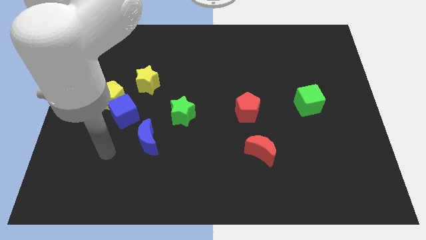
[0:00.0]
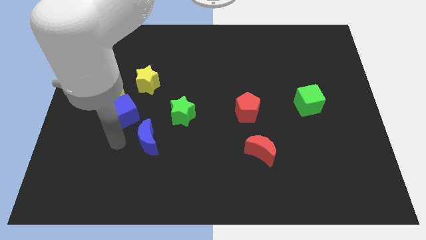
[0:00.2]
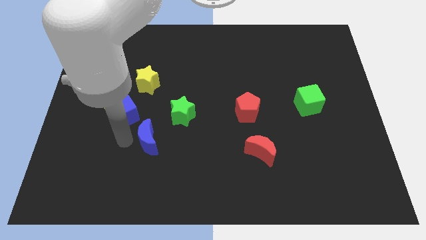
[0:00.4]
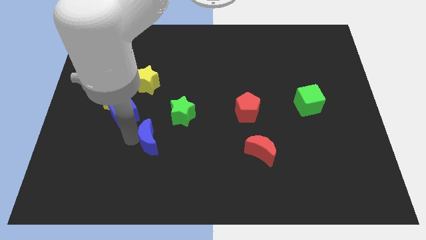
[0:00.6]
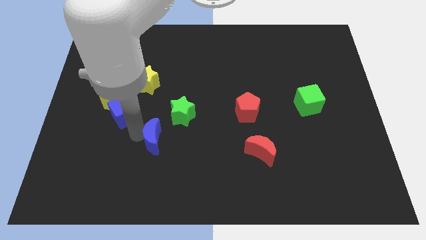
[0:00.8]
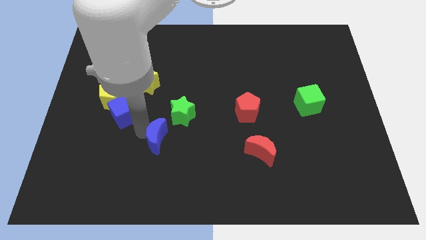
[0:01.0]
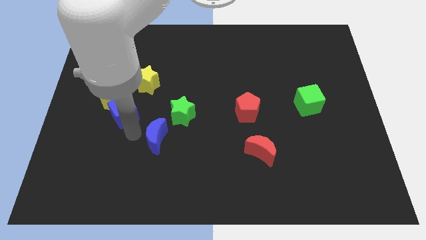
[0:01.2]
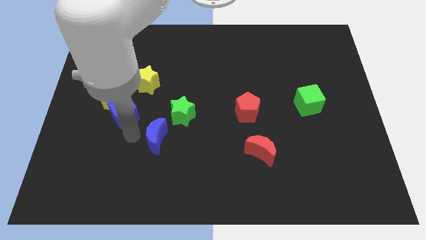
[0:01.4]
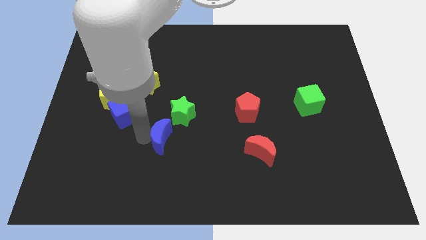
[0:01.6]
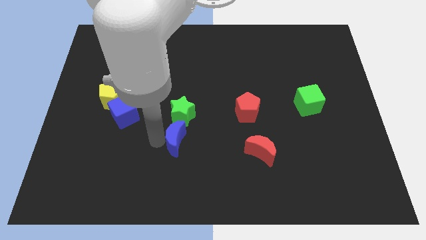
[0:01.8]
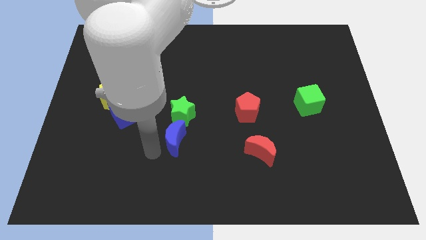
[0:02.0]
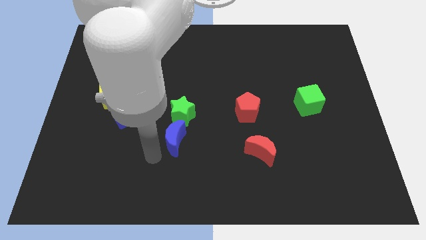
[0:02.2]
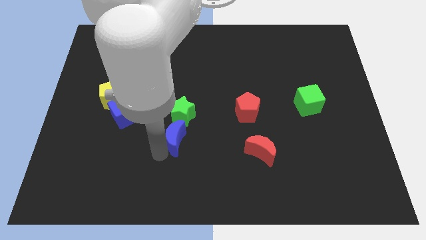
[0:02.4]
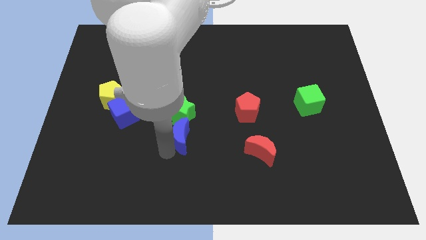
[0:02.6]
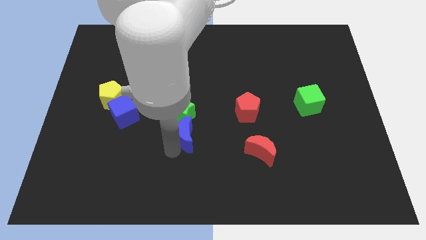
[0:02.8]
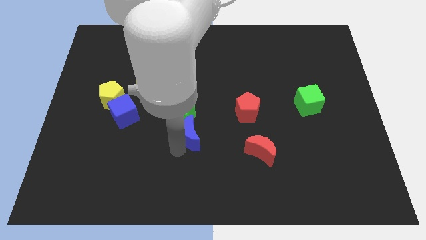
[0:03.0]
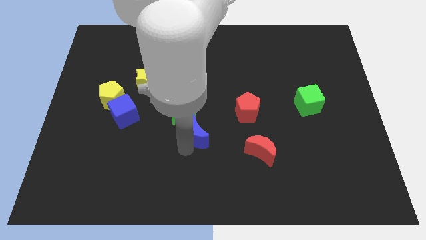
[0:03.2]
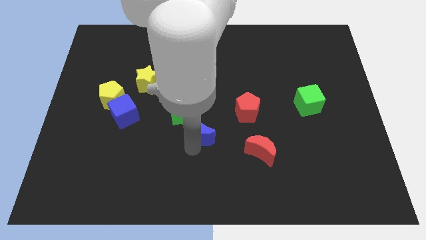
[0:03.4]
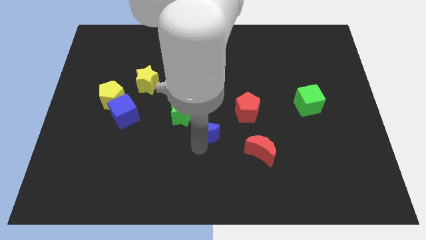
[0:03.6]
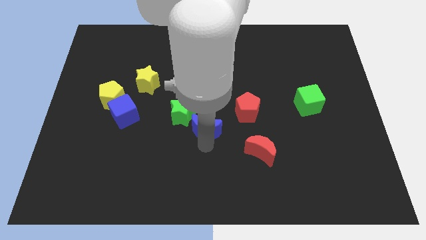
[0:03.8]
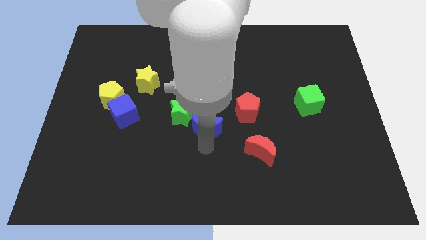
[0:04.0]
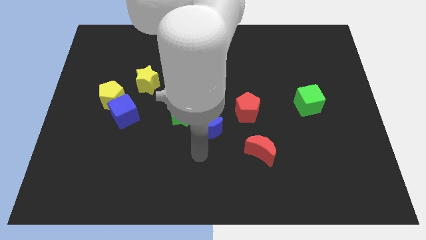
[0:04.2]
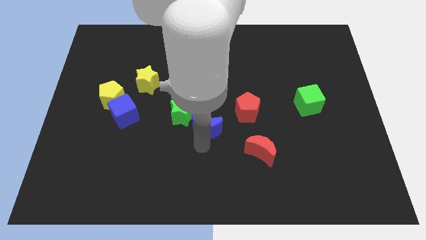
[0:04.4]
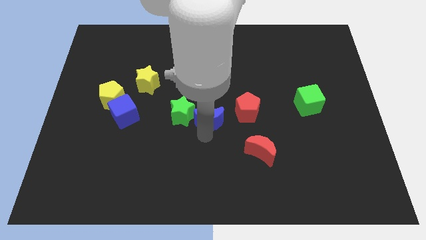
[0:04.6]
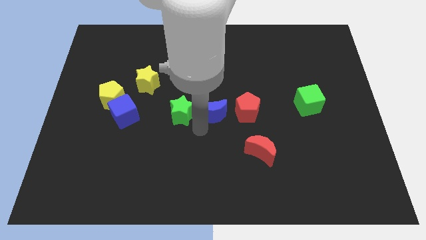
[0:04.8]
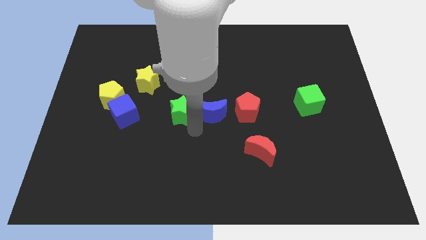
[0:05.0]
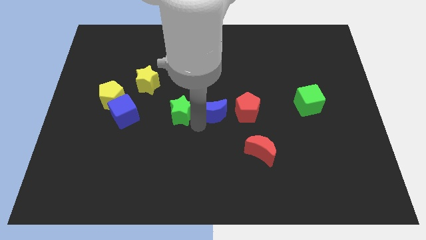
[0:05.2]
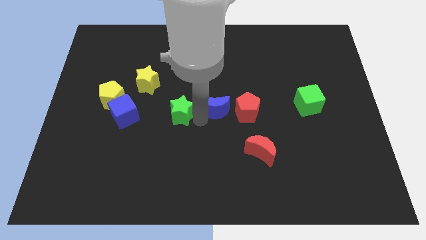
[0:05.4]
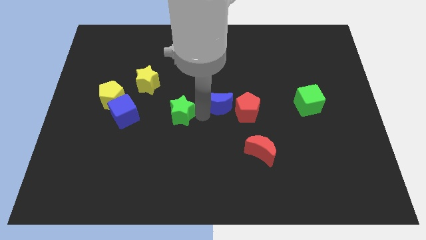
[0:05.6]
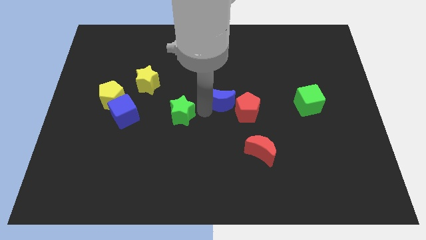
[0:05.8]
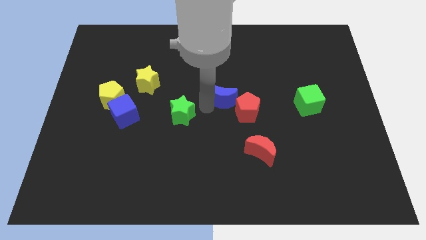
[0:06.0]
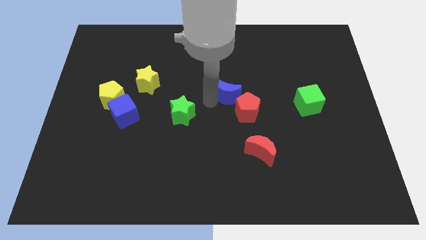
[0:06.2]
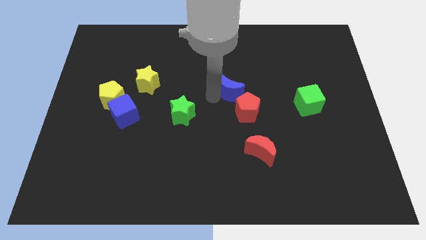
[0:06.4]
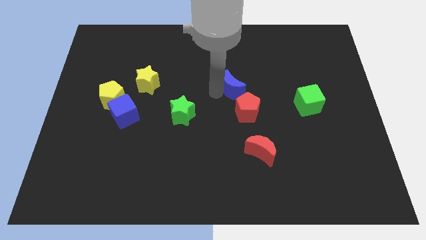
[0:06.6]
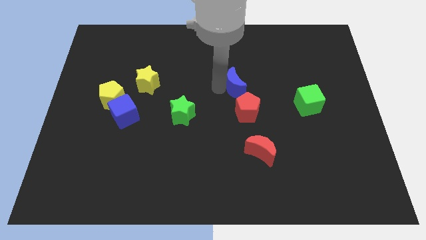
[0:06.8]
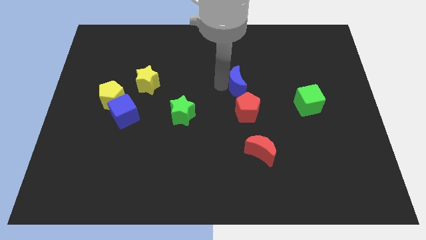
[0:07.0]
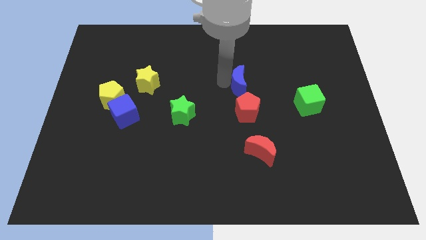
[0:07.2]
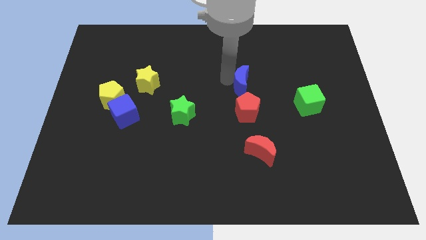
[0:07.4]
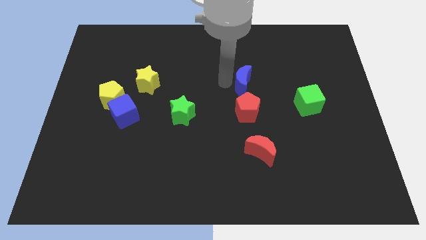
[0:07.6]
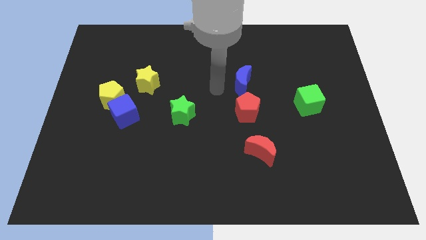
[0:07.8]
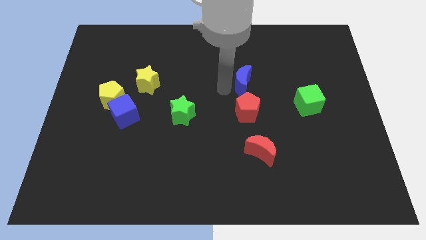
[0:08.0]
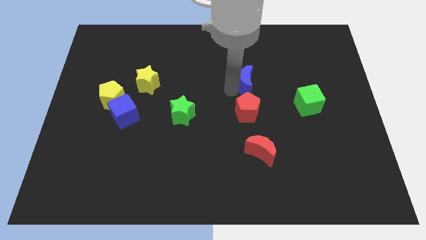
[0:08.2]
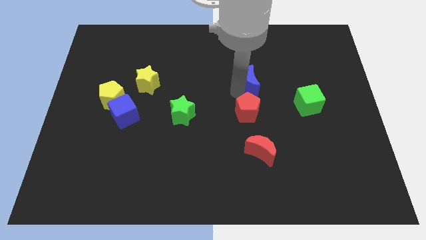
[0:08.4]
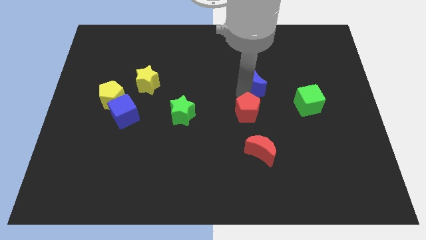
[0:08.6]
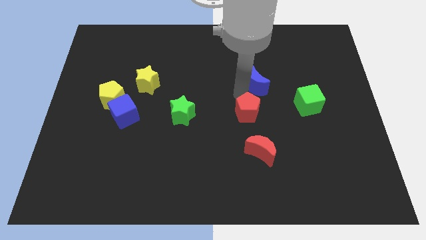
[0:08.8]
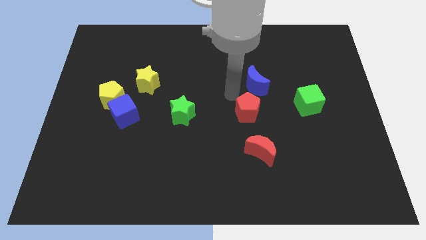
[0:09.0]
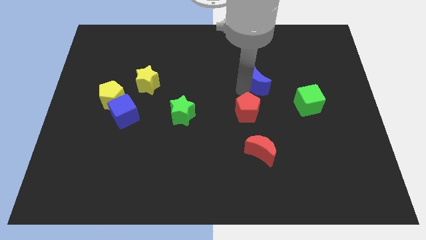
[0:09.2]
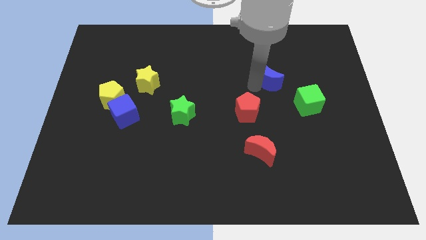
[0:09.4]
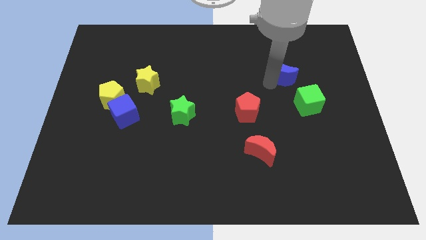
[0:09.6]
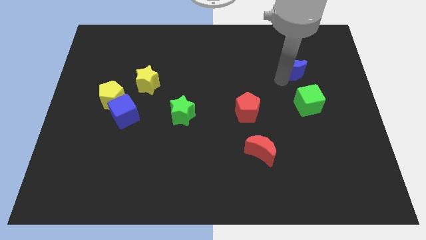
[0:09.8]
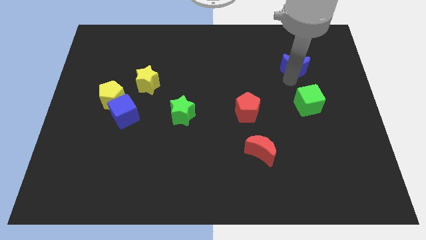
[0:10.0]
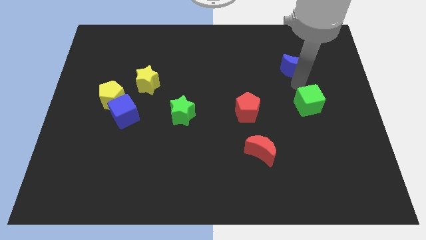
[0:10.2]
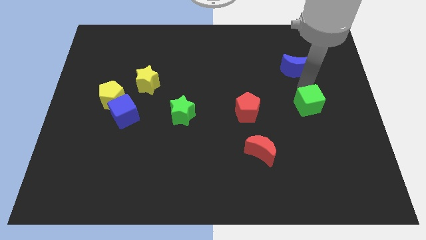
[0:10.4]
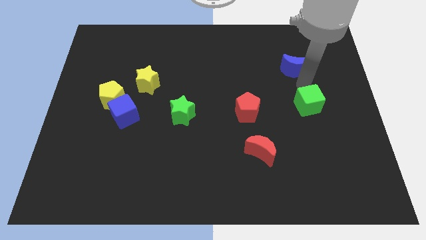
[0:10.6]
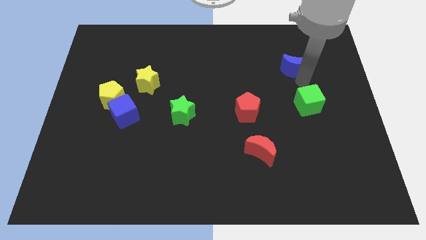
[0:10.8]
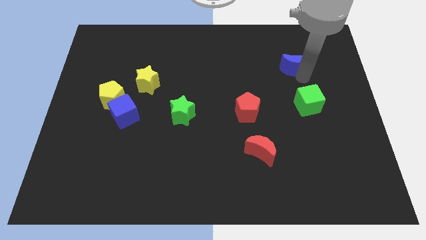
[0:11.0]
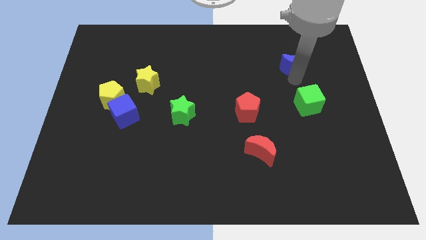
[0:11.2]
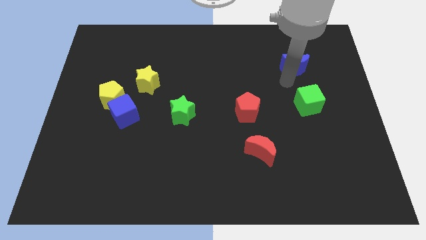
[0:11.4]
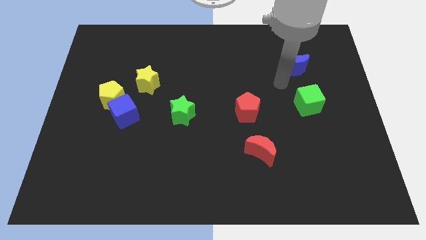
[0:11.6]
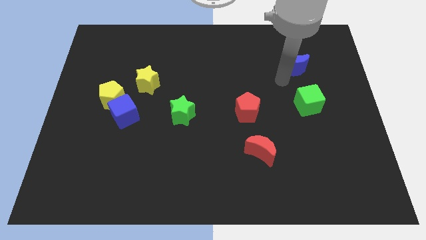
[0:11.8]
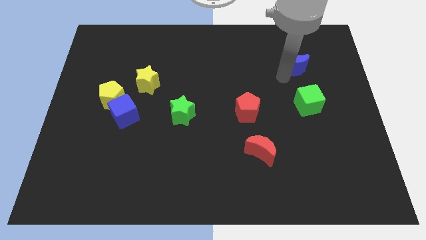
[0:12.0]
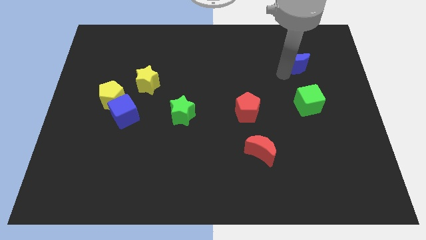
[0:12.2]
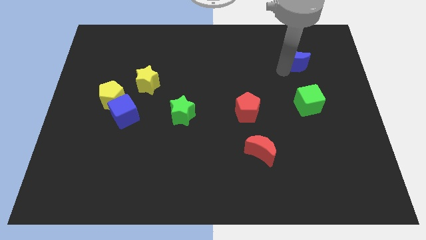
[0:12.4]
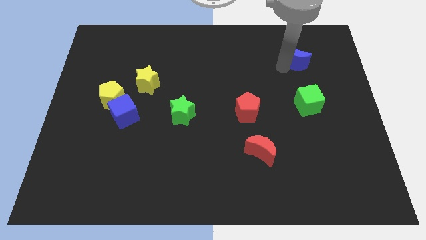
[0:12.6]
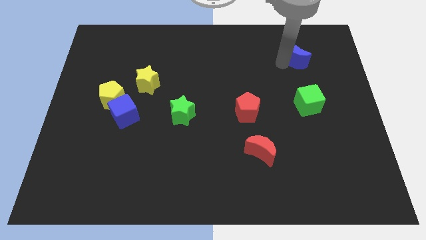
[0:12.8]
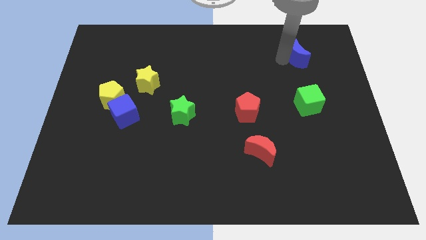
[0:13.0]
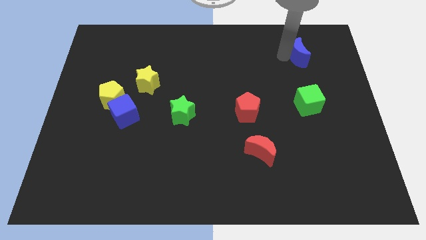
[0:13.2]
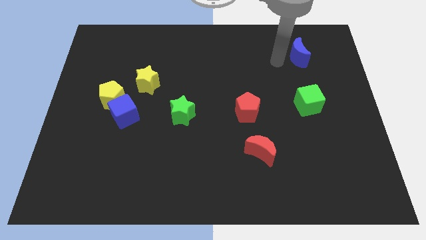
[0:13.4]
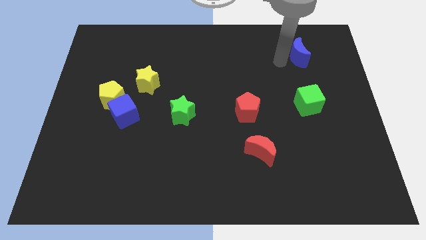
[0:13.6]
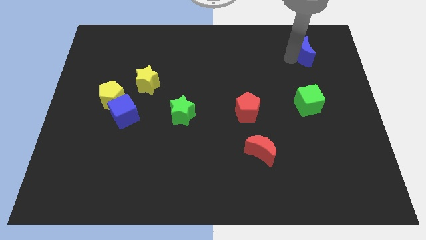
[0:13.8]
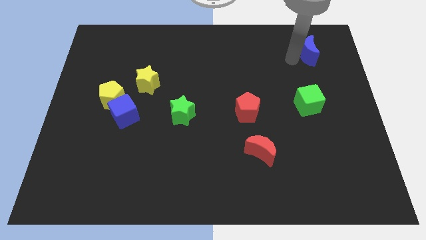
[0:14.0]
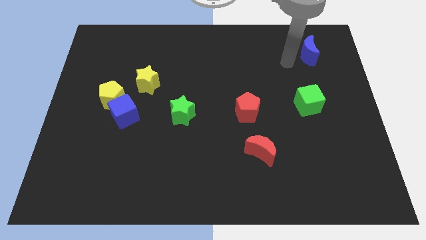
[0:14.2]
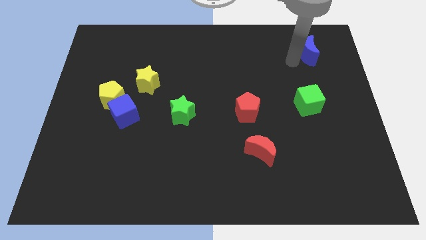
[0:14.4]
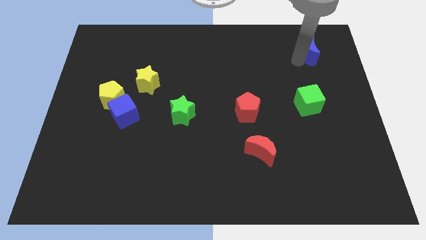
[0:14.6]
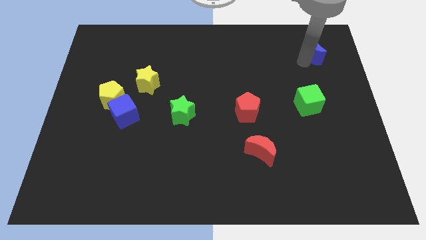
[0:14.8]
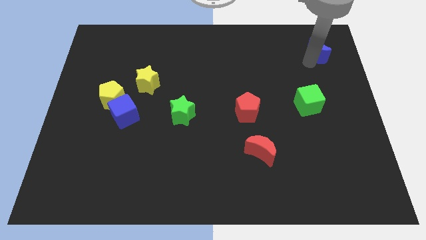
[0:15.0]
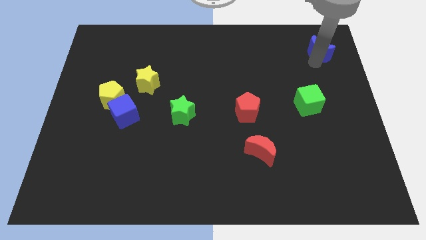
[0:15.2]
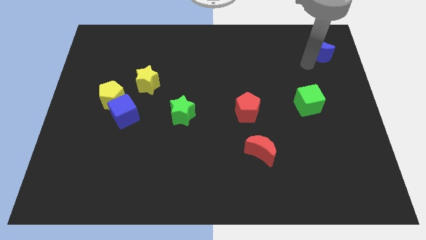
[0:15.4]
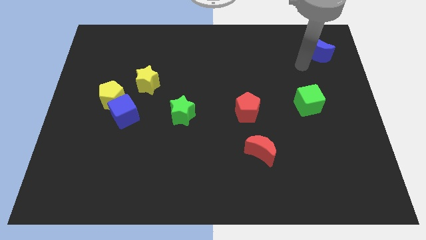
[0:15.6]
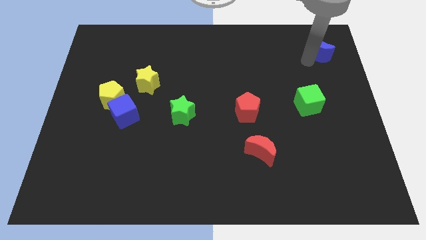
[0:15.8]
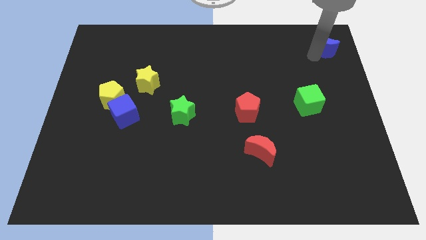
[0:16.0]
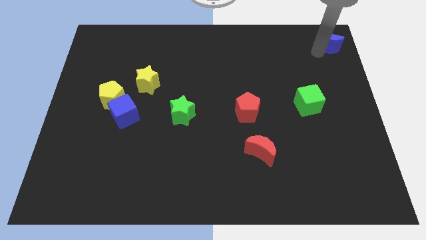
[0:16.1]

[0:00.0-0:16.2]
push the blue moon to the top right of the board
